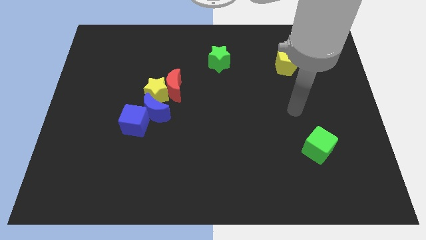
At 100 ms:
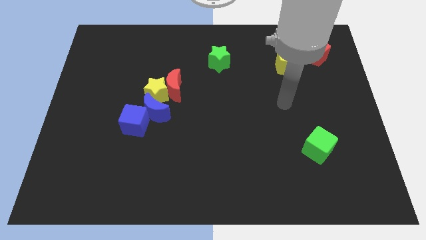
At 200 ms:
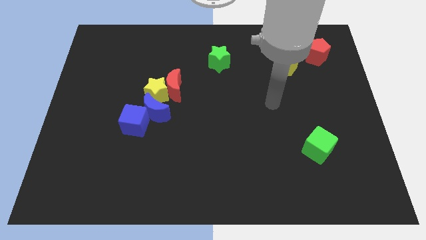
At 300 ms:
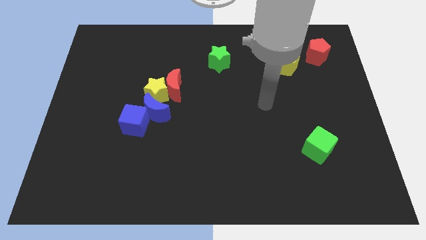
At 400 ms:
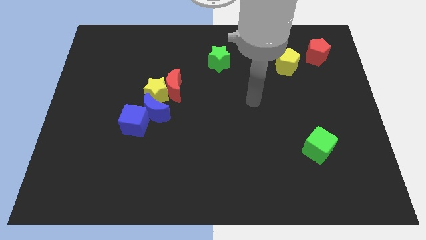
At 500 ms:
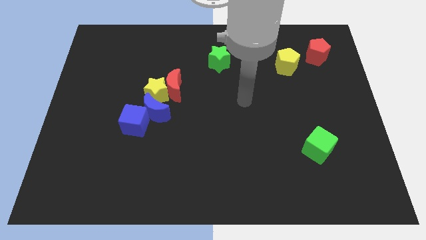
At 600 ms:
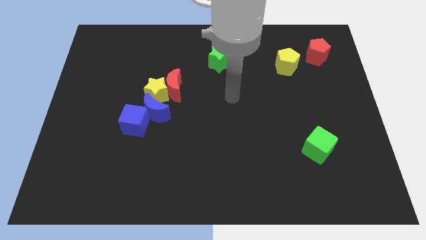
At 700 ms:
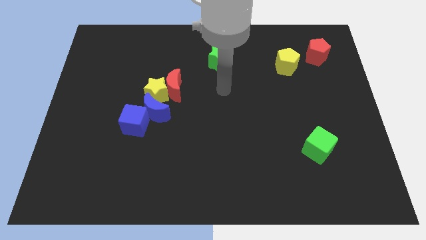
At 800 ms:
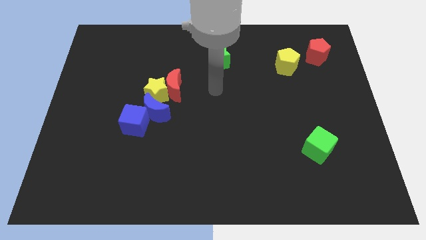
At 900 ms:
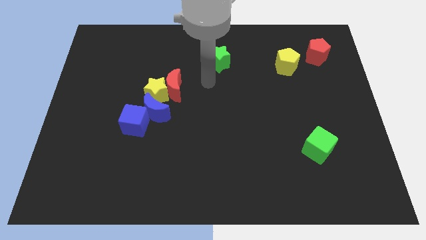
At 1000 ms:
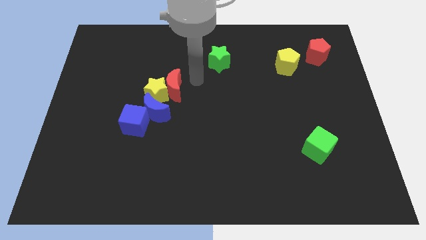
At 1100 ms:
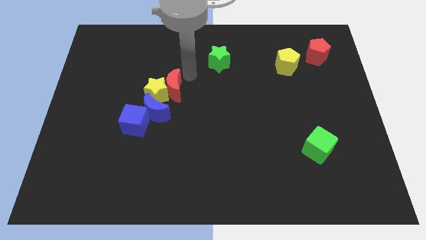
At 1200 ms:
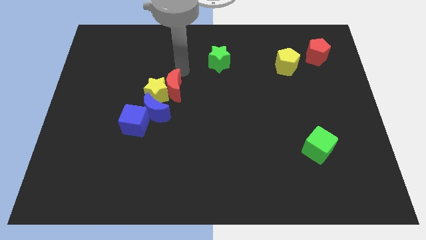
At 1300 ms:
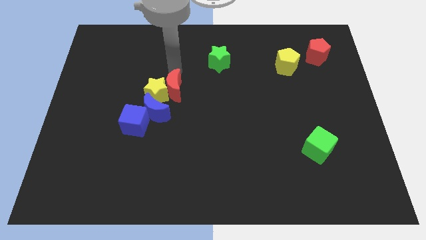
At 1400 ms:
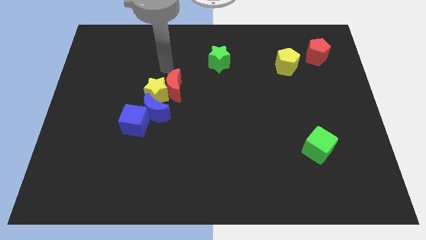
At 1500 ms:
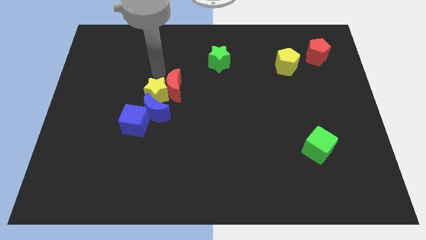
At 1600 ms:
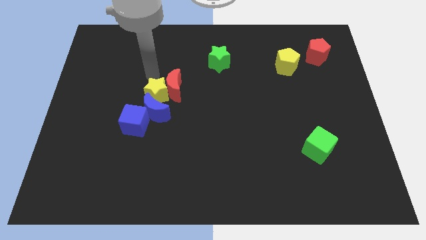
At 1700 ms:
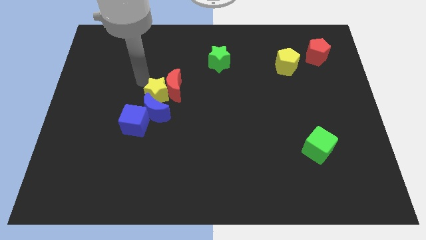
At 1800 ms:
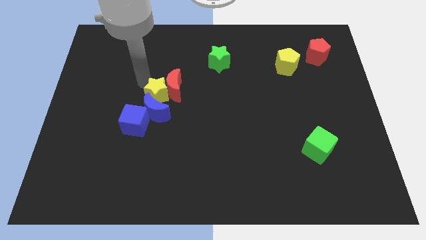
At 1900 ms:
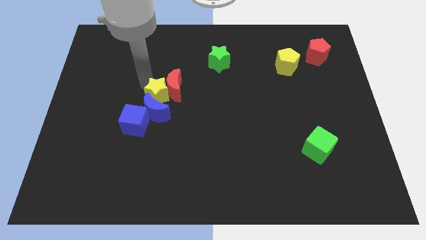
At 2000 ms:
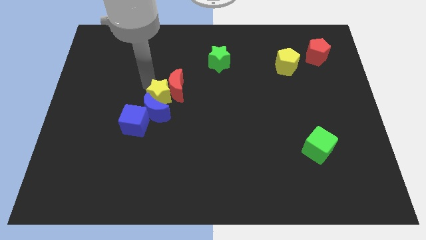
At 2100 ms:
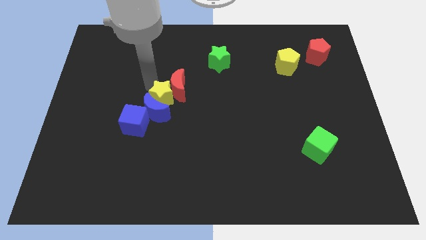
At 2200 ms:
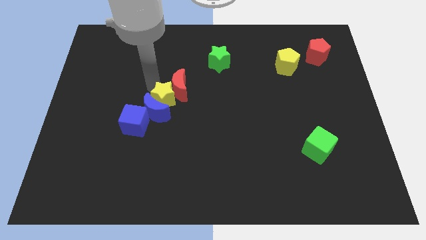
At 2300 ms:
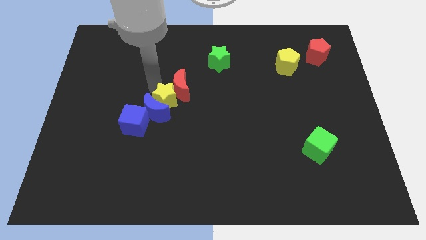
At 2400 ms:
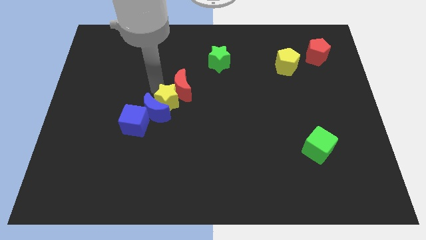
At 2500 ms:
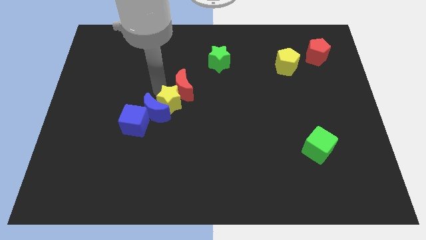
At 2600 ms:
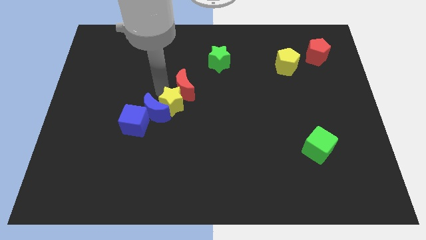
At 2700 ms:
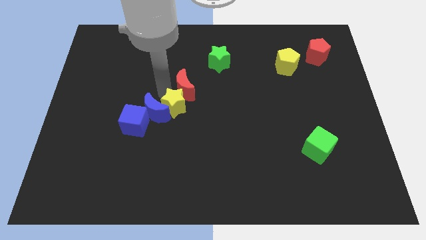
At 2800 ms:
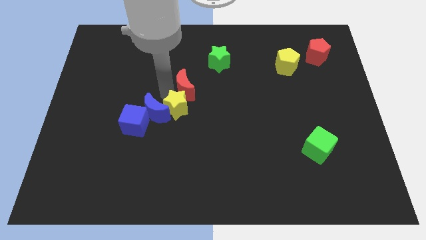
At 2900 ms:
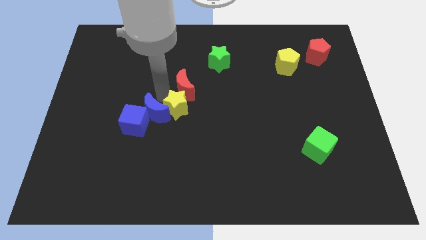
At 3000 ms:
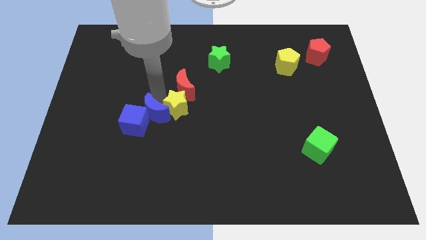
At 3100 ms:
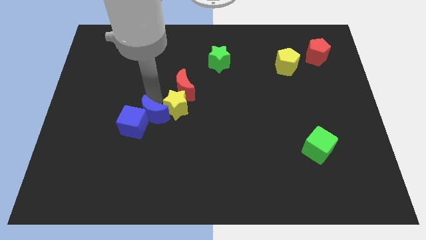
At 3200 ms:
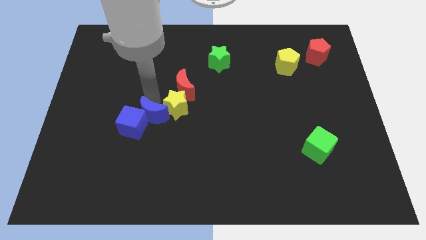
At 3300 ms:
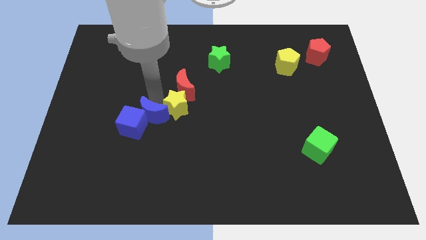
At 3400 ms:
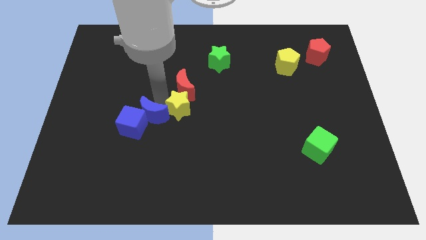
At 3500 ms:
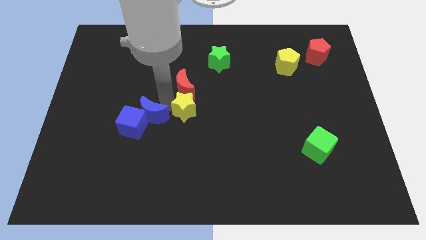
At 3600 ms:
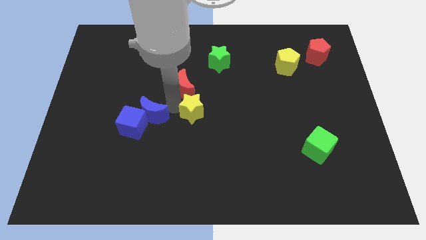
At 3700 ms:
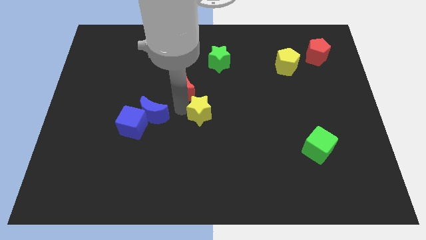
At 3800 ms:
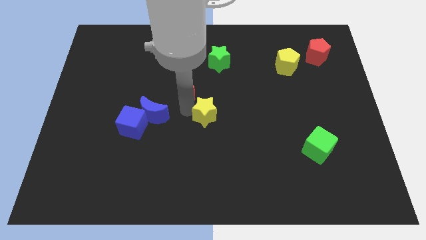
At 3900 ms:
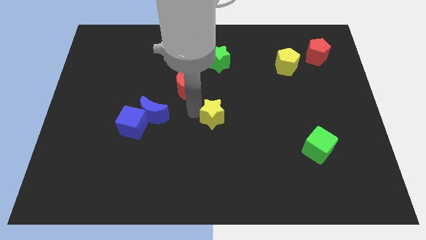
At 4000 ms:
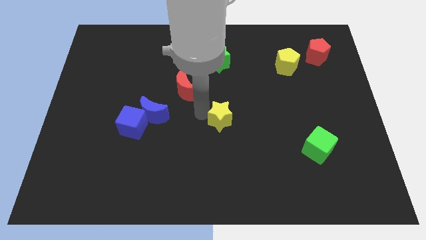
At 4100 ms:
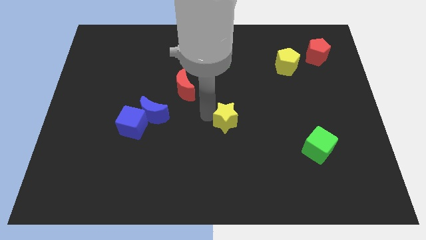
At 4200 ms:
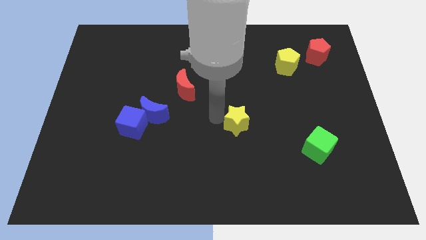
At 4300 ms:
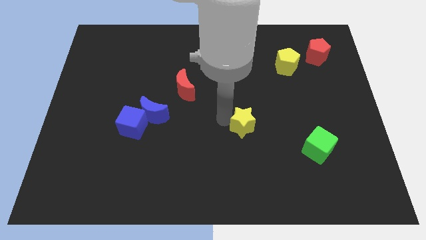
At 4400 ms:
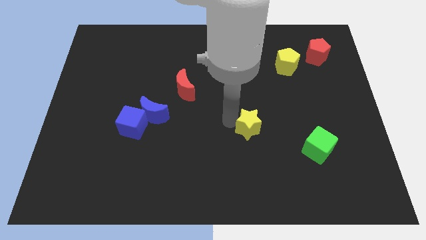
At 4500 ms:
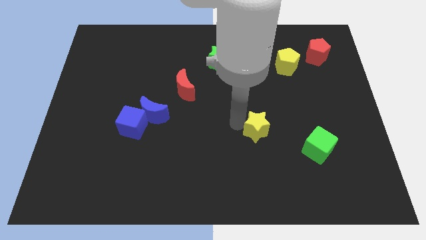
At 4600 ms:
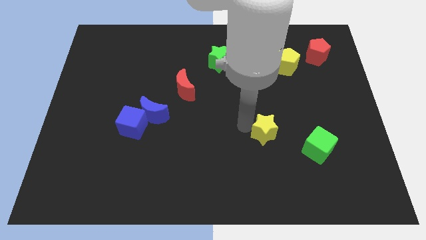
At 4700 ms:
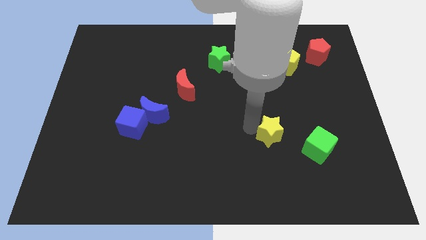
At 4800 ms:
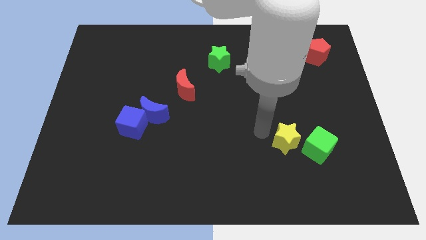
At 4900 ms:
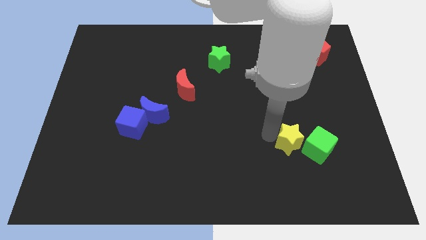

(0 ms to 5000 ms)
push the yellow star next to the green cube

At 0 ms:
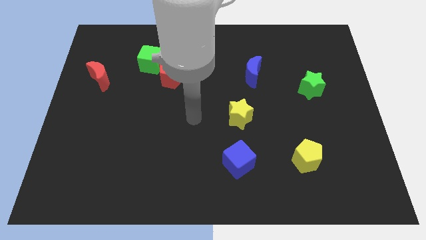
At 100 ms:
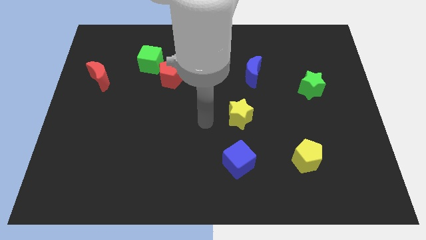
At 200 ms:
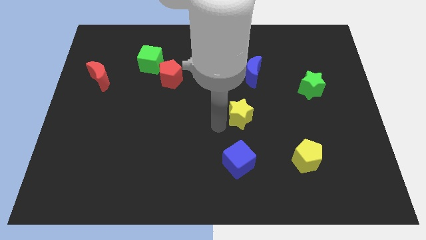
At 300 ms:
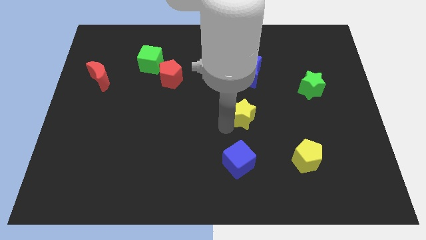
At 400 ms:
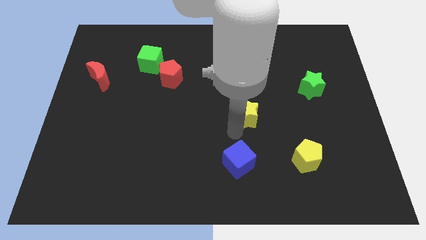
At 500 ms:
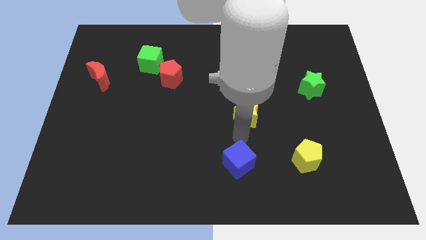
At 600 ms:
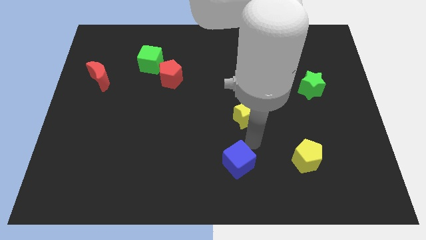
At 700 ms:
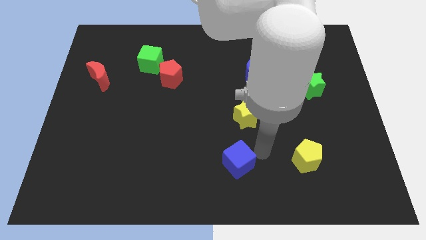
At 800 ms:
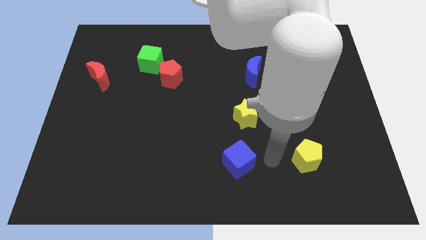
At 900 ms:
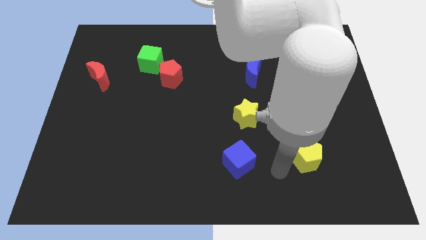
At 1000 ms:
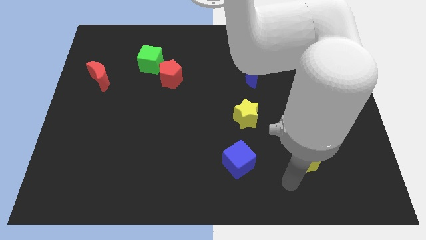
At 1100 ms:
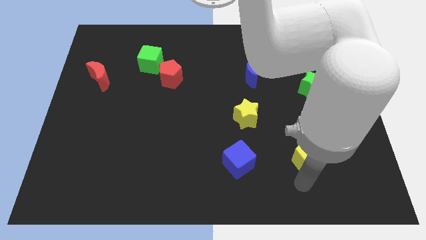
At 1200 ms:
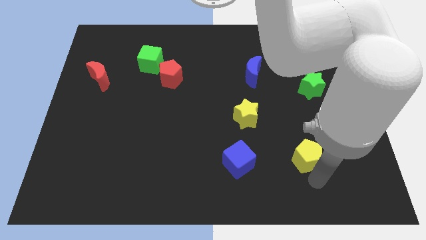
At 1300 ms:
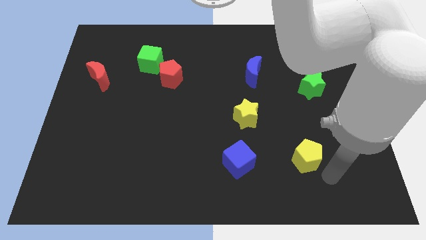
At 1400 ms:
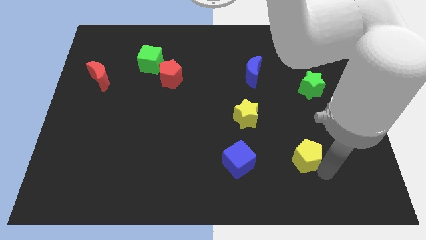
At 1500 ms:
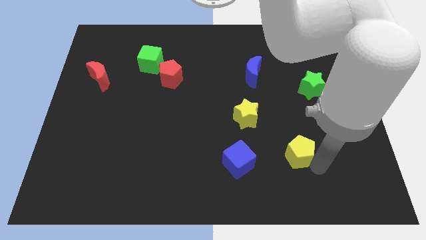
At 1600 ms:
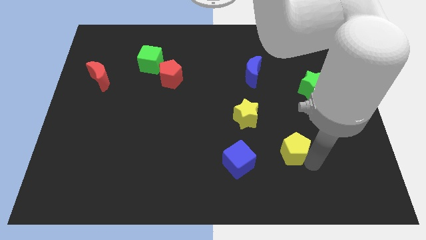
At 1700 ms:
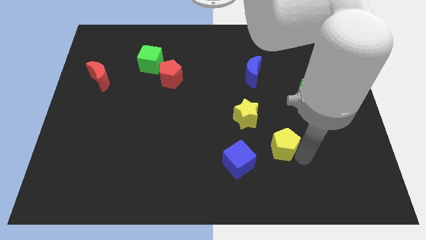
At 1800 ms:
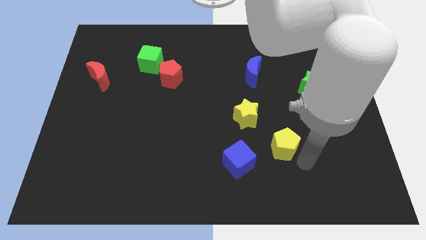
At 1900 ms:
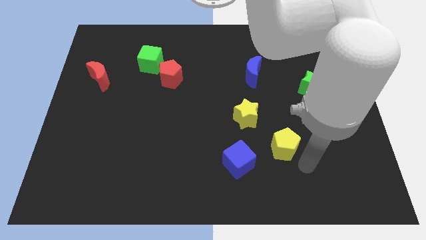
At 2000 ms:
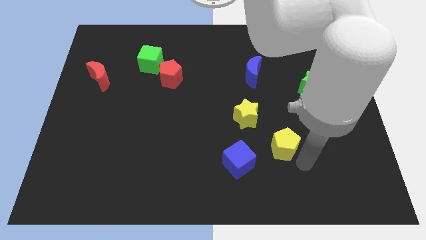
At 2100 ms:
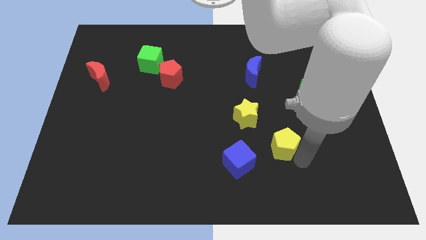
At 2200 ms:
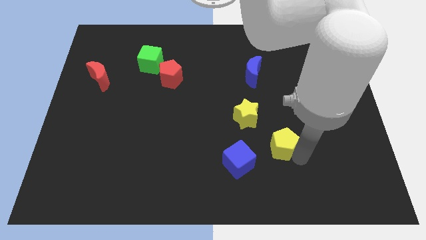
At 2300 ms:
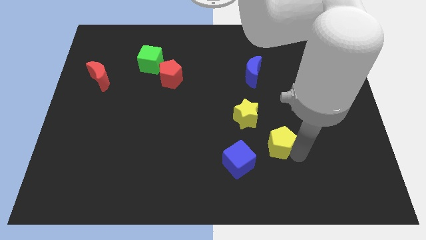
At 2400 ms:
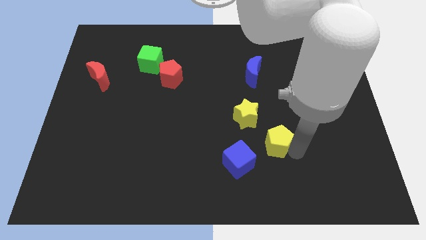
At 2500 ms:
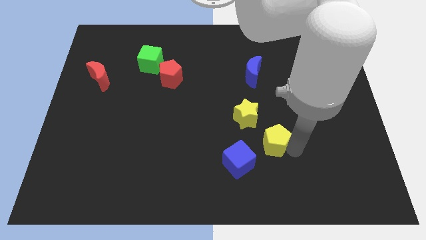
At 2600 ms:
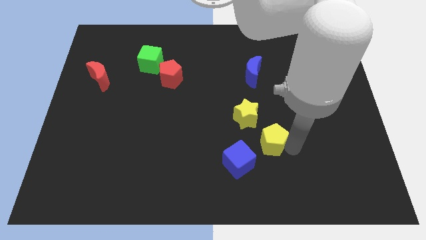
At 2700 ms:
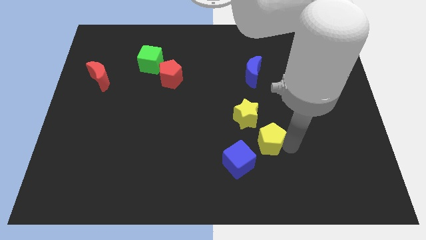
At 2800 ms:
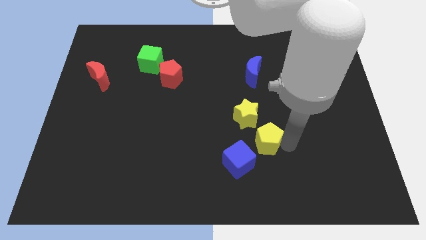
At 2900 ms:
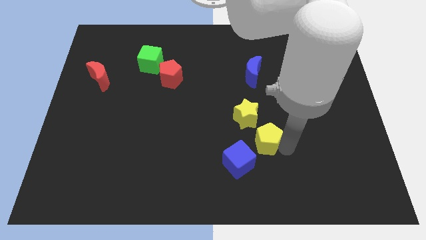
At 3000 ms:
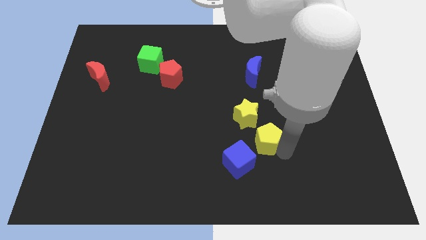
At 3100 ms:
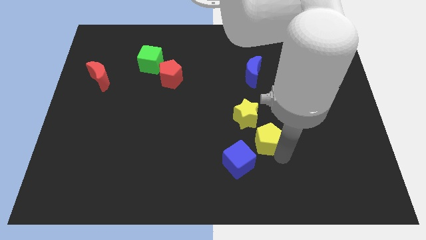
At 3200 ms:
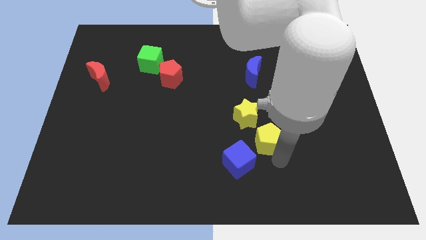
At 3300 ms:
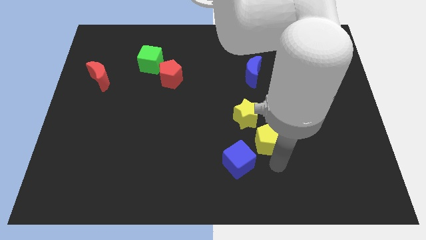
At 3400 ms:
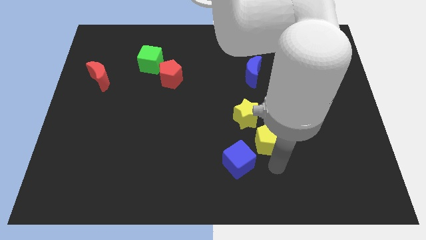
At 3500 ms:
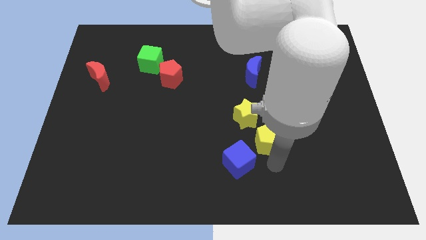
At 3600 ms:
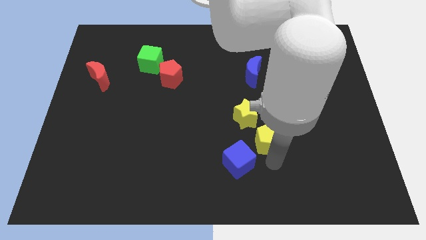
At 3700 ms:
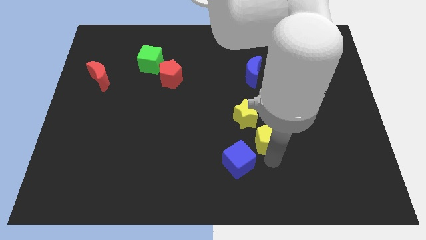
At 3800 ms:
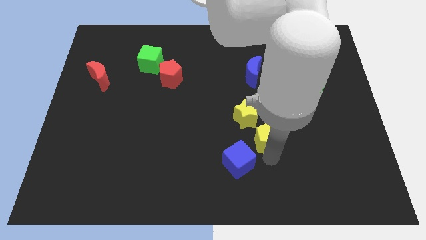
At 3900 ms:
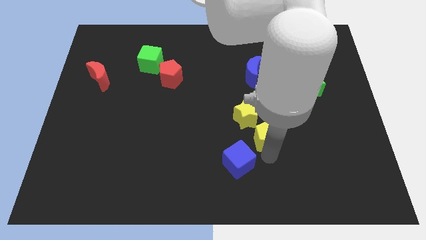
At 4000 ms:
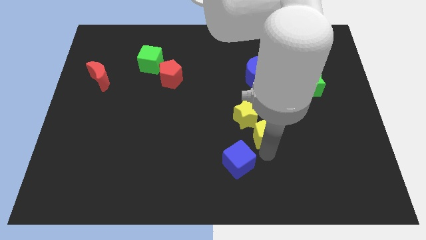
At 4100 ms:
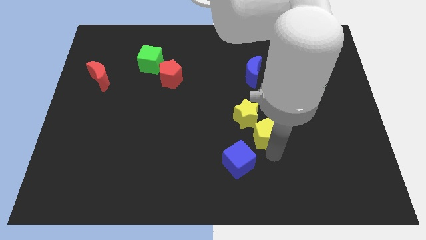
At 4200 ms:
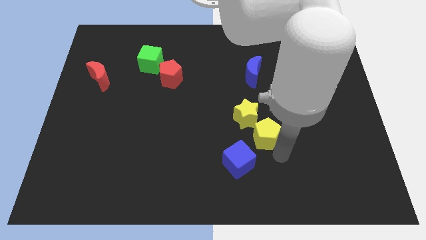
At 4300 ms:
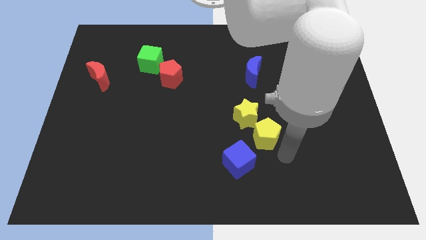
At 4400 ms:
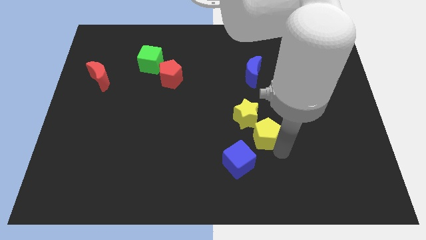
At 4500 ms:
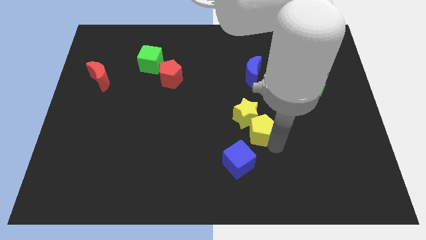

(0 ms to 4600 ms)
slide the yellow pentagon towards the yellow star
